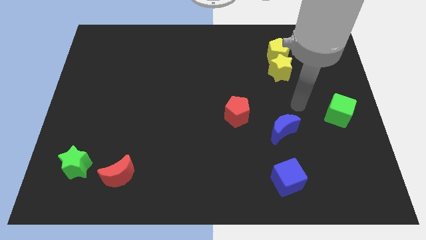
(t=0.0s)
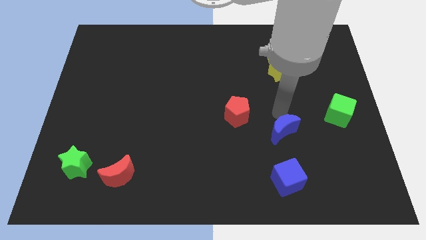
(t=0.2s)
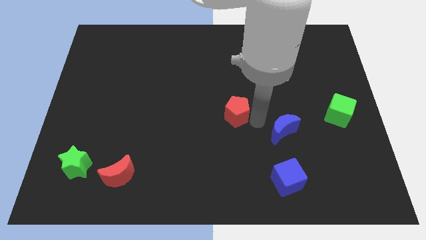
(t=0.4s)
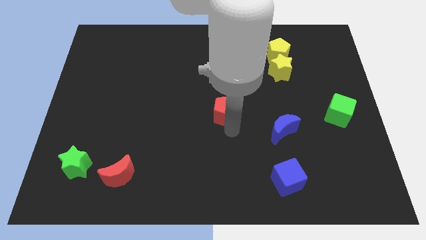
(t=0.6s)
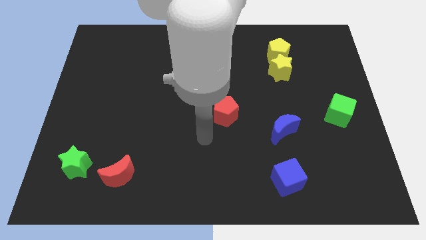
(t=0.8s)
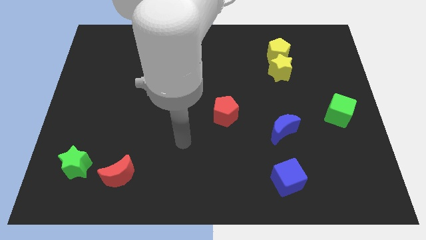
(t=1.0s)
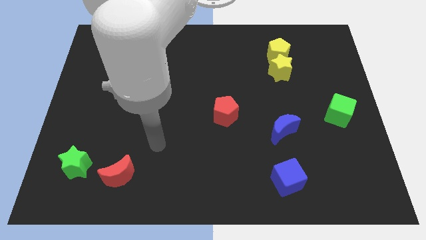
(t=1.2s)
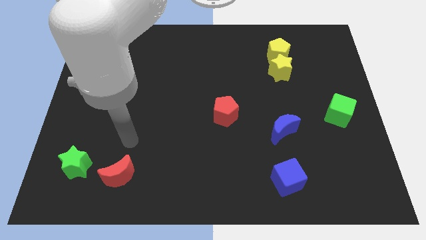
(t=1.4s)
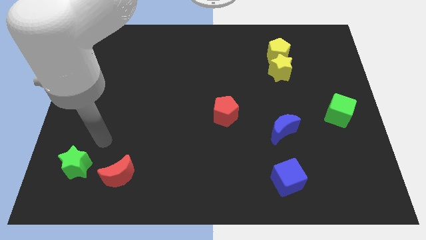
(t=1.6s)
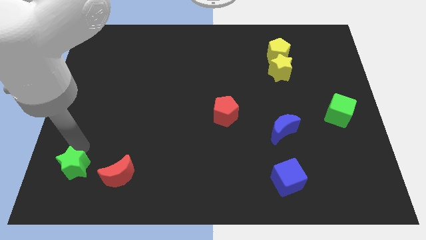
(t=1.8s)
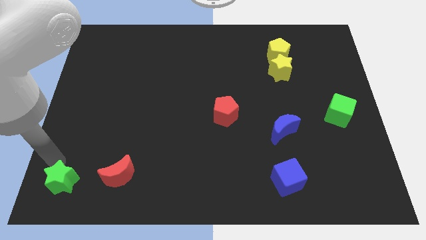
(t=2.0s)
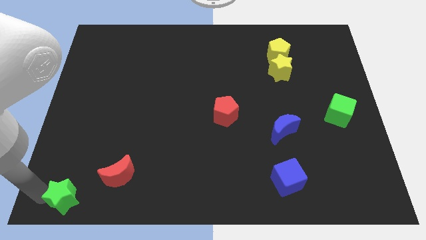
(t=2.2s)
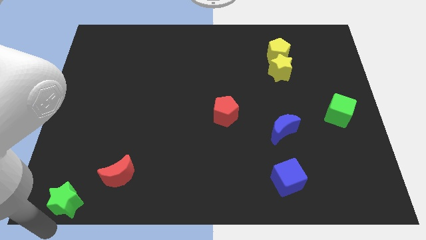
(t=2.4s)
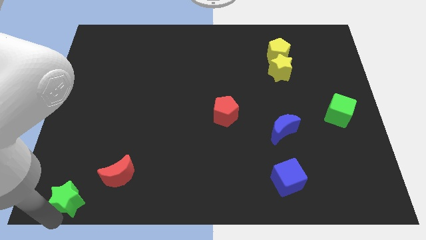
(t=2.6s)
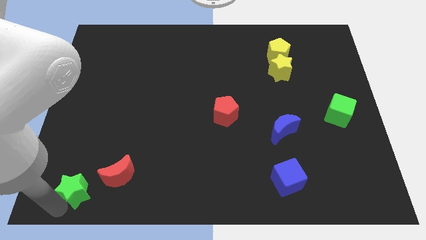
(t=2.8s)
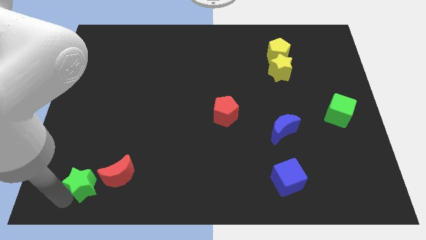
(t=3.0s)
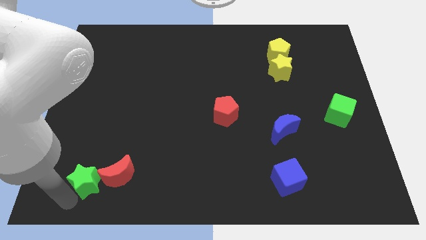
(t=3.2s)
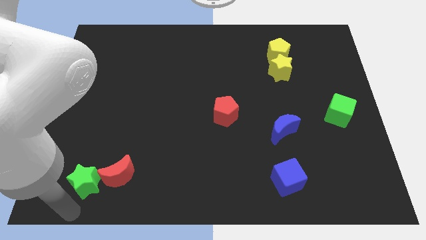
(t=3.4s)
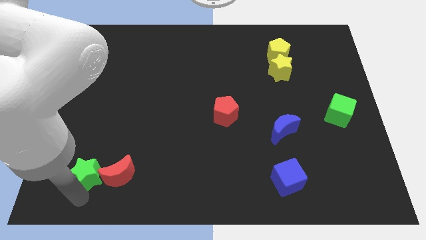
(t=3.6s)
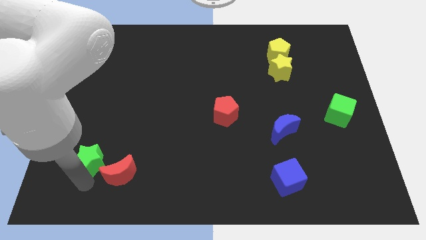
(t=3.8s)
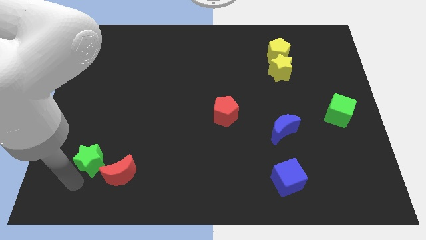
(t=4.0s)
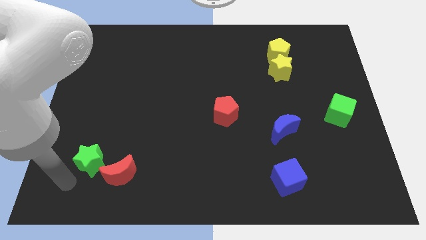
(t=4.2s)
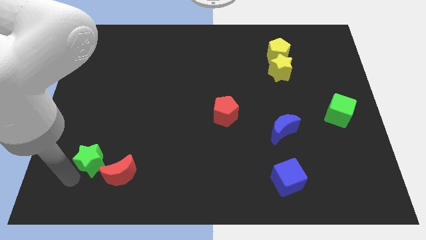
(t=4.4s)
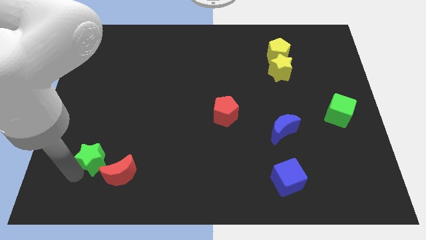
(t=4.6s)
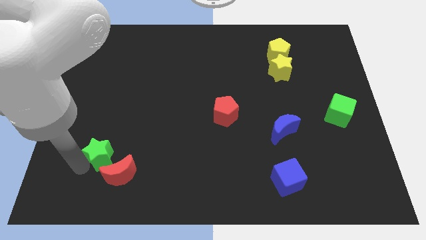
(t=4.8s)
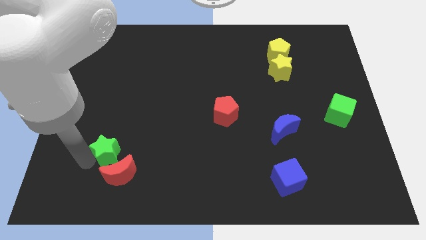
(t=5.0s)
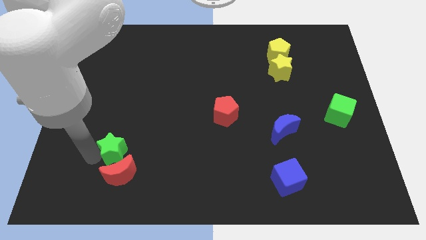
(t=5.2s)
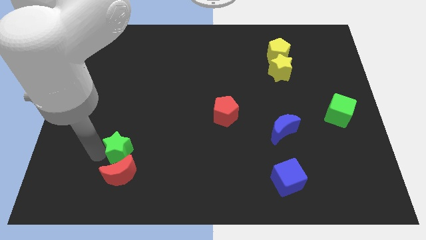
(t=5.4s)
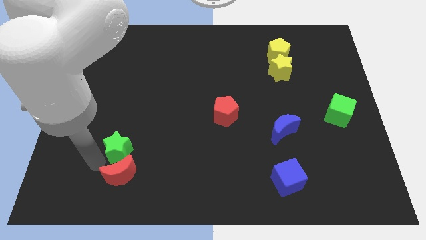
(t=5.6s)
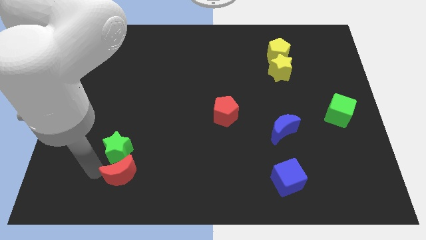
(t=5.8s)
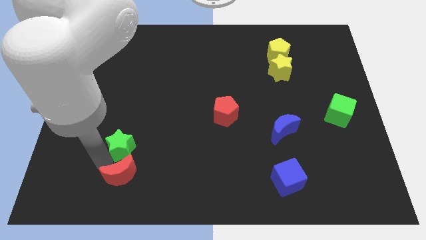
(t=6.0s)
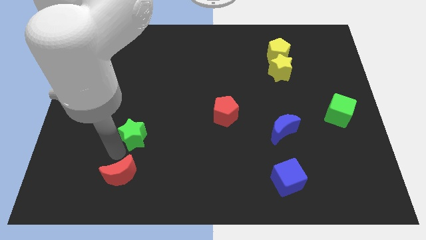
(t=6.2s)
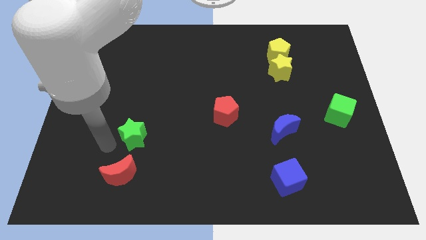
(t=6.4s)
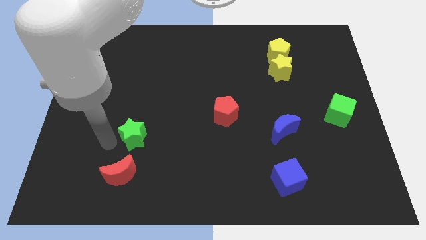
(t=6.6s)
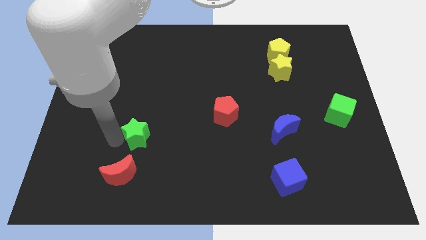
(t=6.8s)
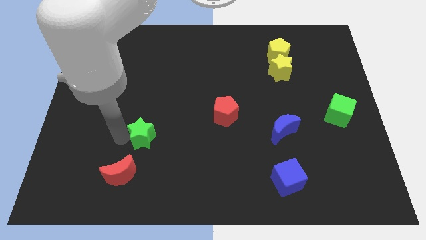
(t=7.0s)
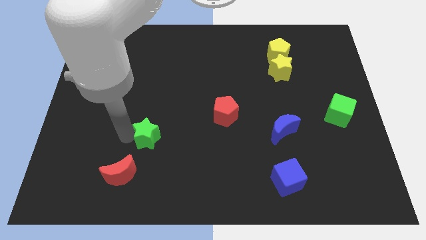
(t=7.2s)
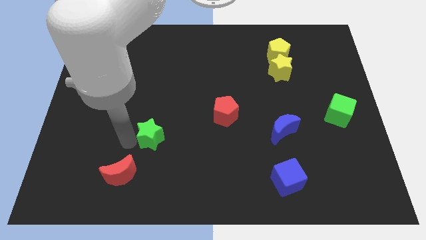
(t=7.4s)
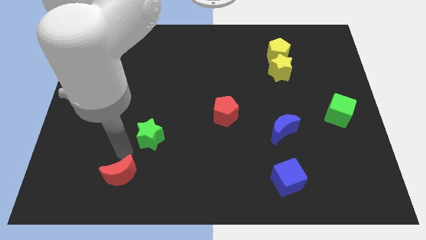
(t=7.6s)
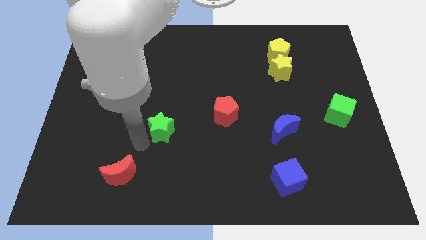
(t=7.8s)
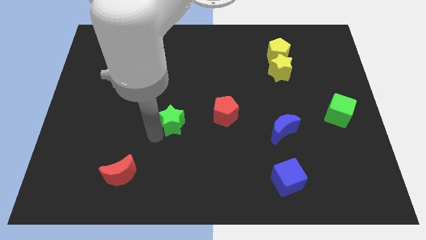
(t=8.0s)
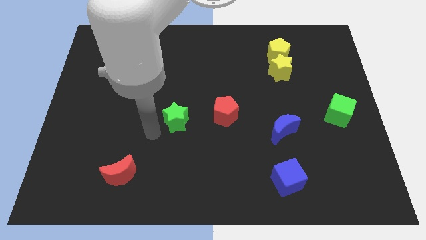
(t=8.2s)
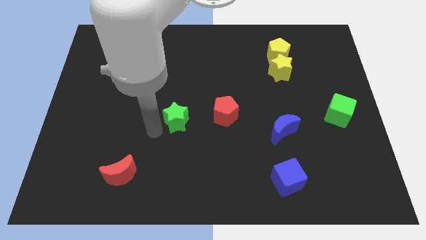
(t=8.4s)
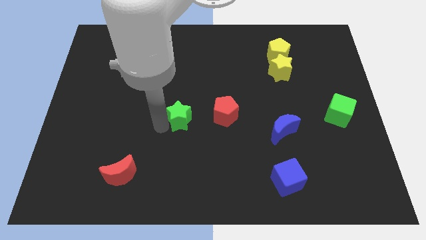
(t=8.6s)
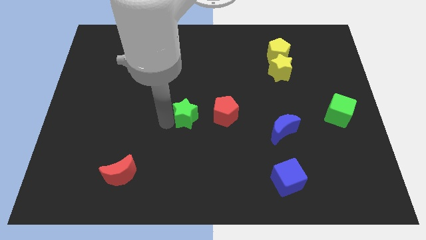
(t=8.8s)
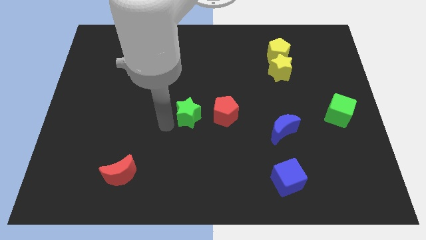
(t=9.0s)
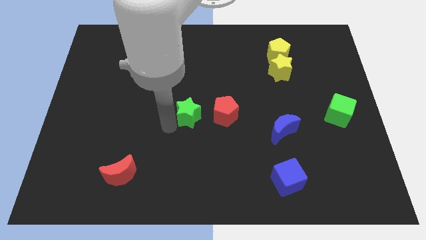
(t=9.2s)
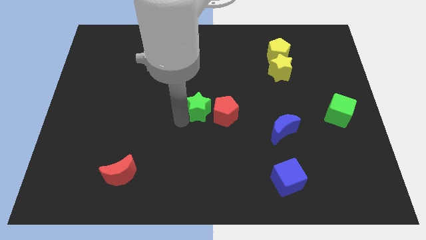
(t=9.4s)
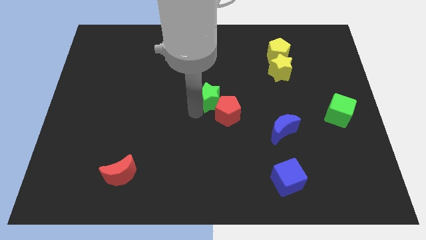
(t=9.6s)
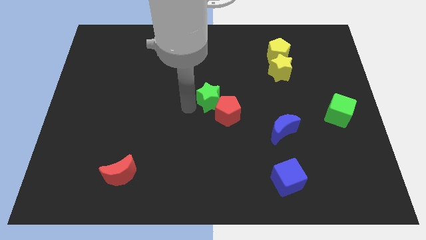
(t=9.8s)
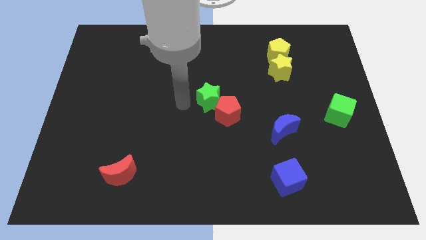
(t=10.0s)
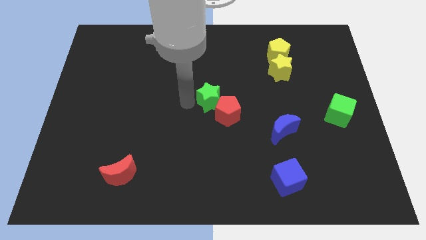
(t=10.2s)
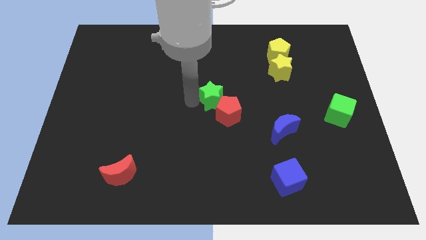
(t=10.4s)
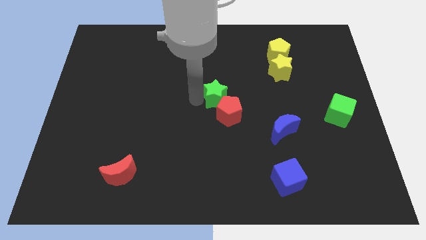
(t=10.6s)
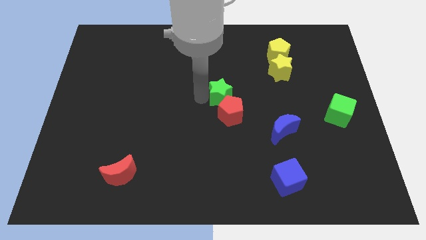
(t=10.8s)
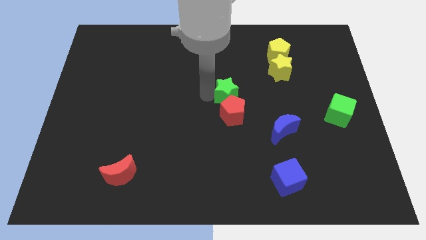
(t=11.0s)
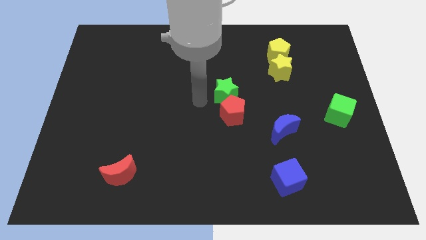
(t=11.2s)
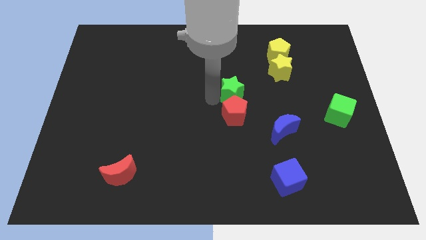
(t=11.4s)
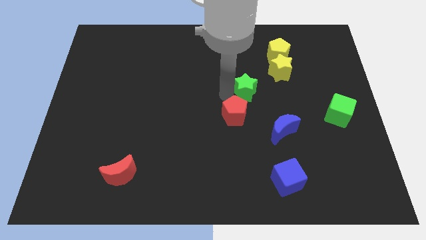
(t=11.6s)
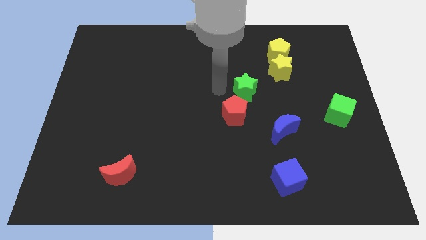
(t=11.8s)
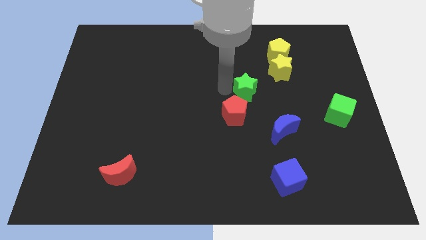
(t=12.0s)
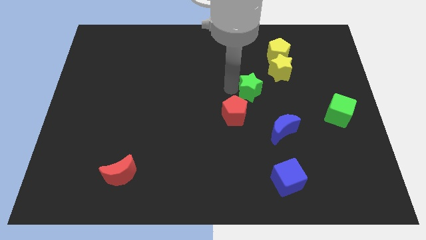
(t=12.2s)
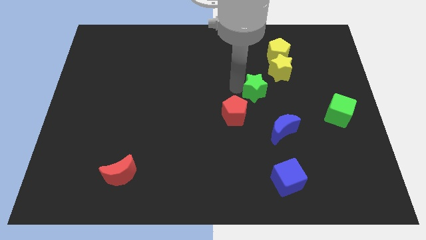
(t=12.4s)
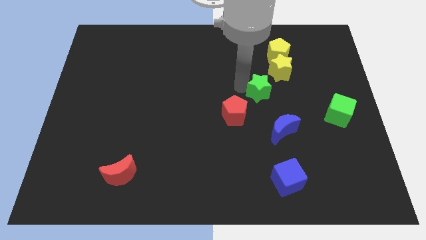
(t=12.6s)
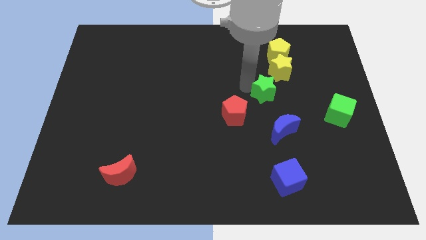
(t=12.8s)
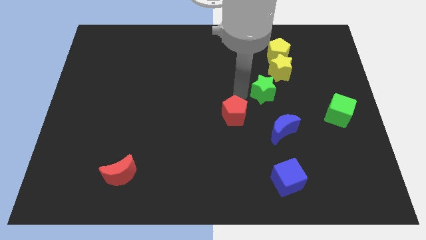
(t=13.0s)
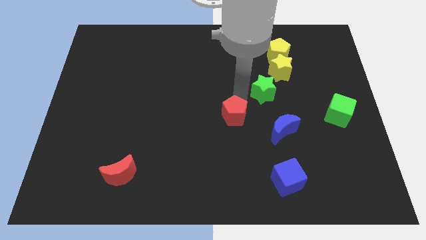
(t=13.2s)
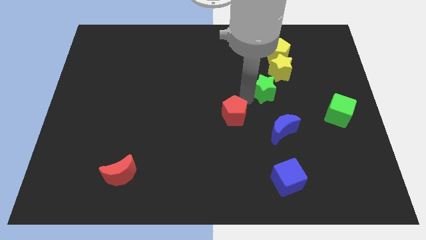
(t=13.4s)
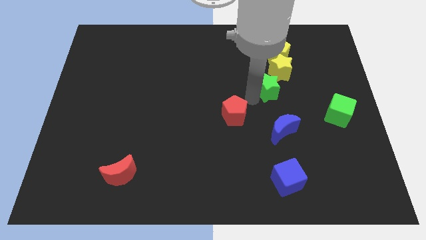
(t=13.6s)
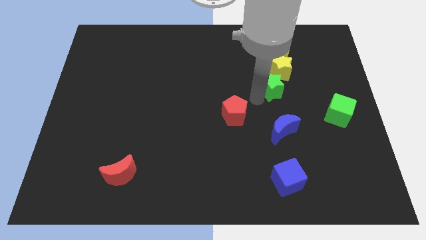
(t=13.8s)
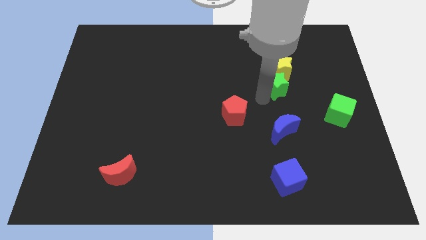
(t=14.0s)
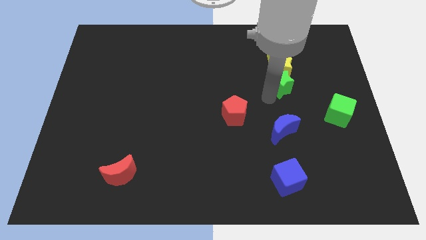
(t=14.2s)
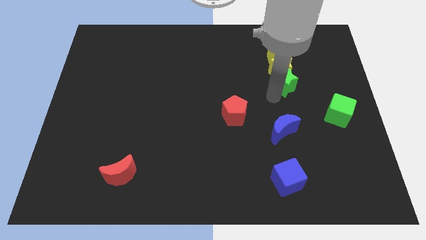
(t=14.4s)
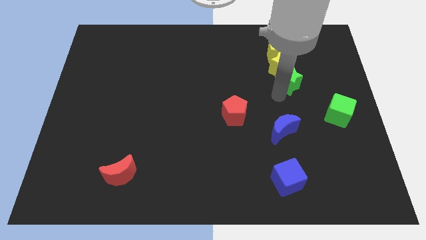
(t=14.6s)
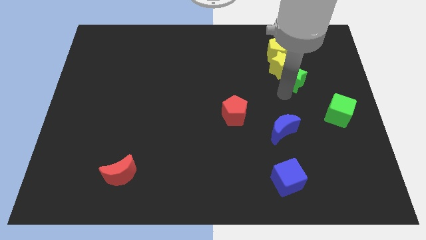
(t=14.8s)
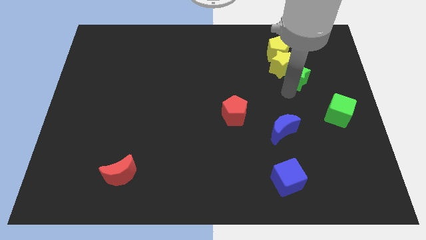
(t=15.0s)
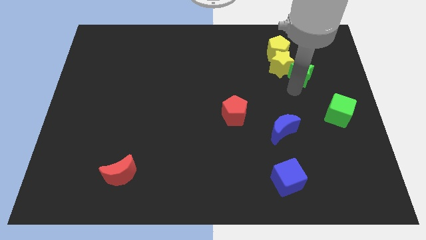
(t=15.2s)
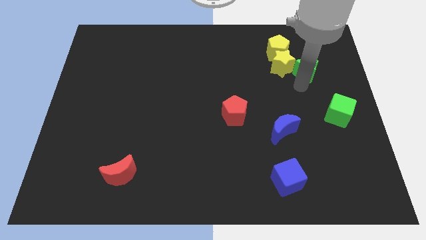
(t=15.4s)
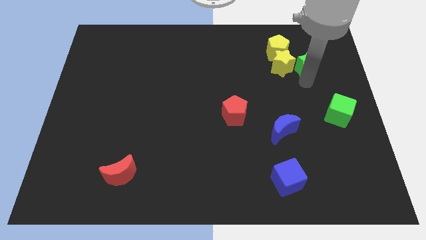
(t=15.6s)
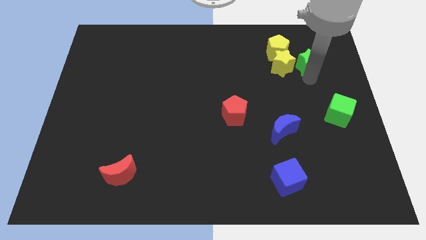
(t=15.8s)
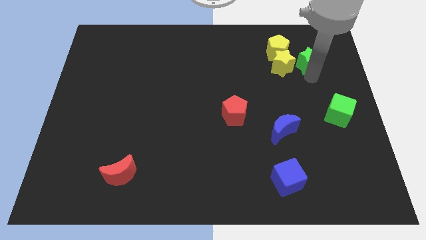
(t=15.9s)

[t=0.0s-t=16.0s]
slide the green star just right of the yellow pentagon
